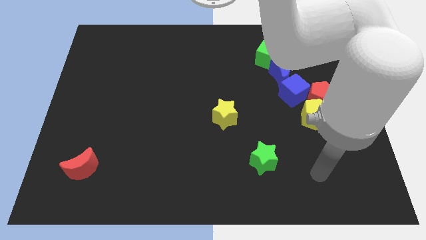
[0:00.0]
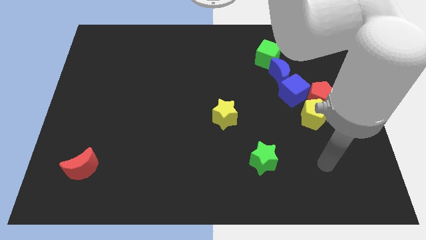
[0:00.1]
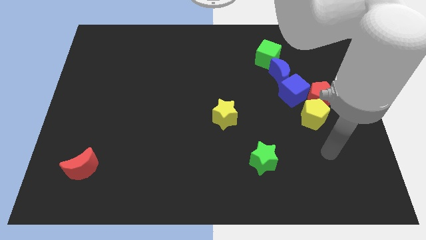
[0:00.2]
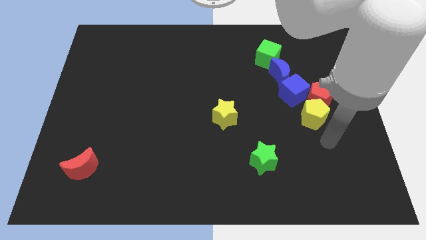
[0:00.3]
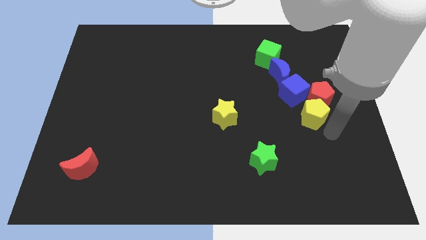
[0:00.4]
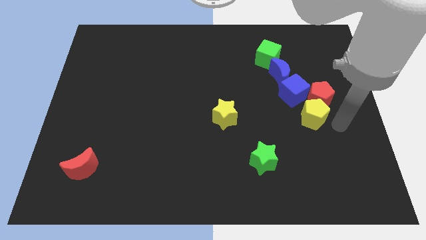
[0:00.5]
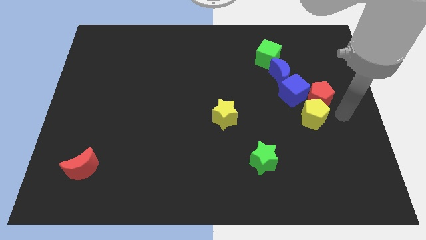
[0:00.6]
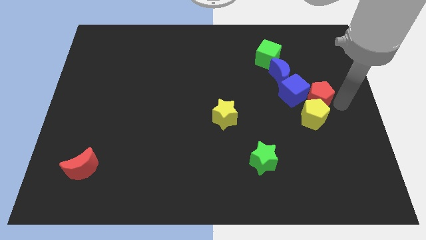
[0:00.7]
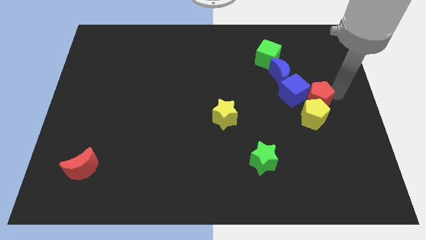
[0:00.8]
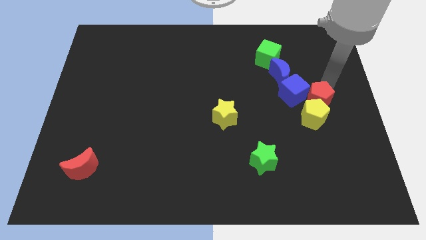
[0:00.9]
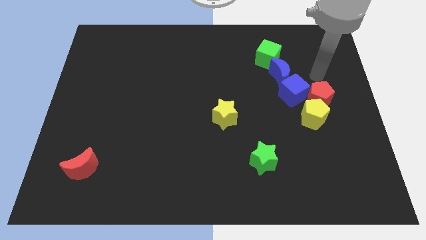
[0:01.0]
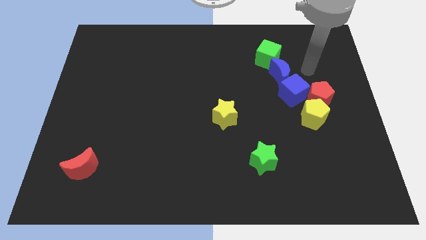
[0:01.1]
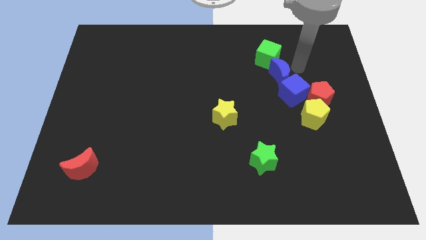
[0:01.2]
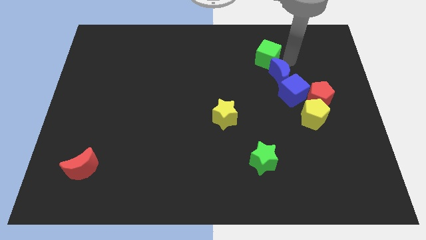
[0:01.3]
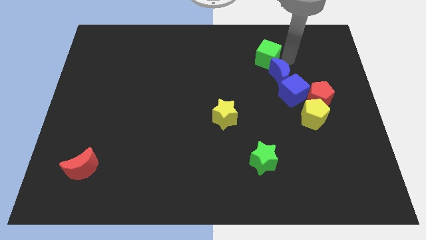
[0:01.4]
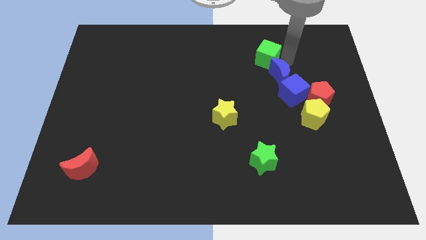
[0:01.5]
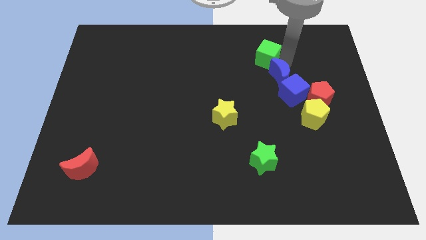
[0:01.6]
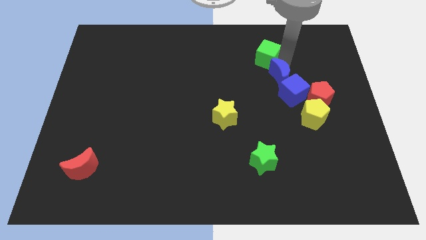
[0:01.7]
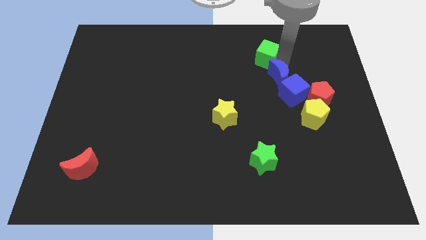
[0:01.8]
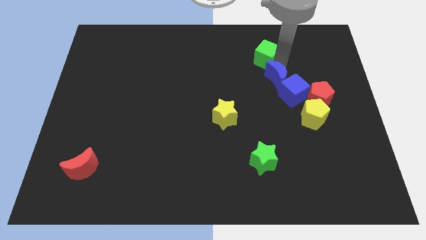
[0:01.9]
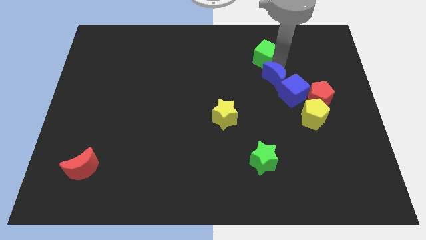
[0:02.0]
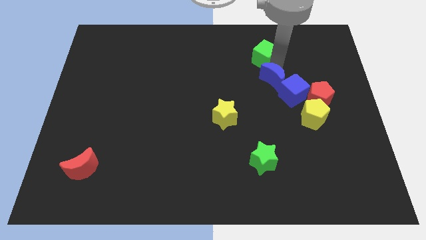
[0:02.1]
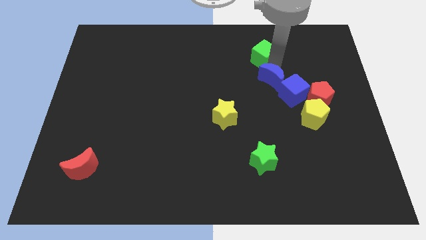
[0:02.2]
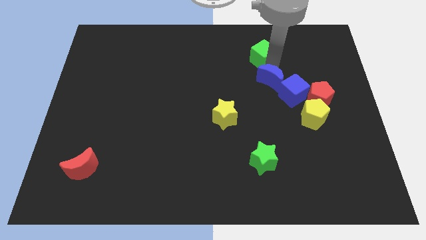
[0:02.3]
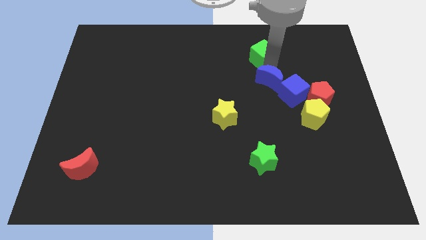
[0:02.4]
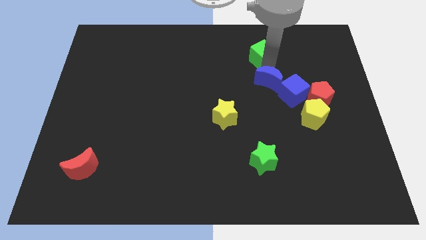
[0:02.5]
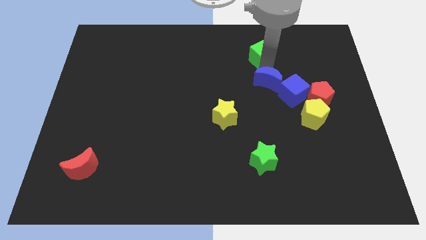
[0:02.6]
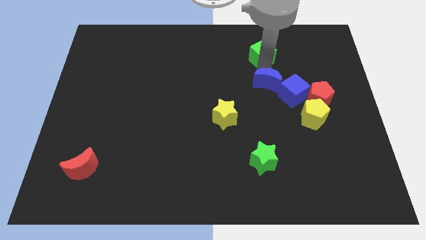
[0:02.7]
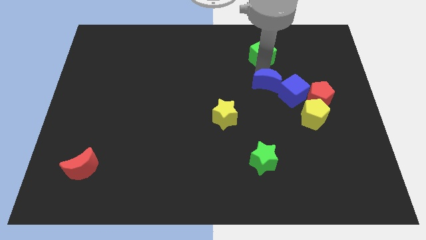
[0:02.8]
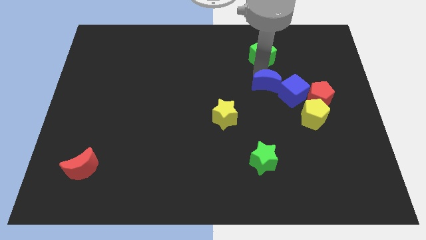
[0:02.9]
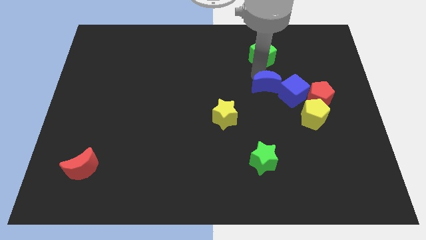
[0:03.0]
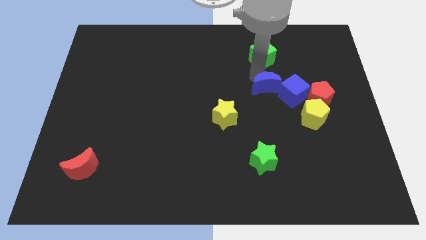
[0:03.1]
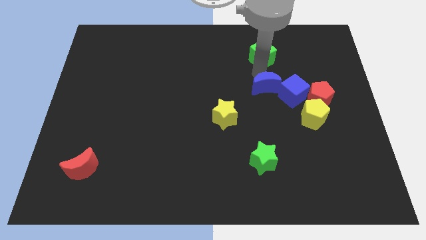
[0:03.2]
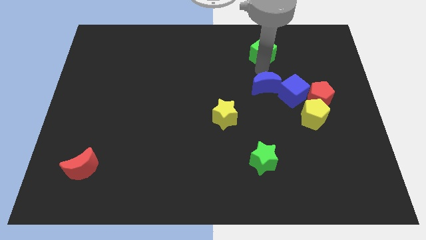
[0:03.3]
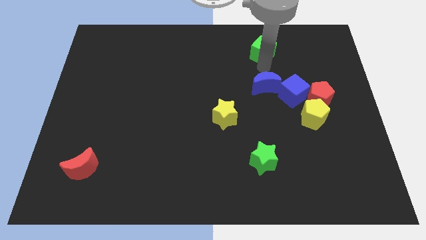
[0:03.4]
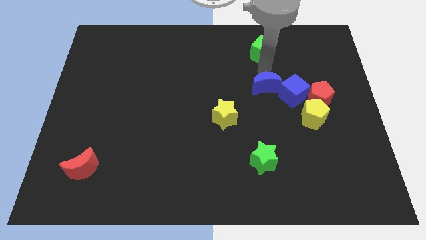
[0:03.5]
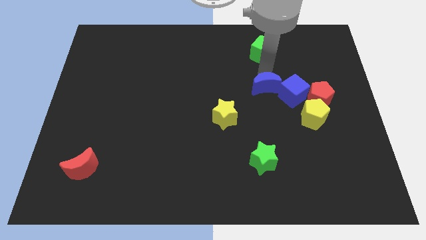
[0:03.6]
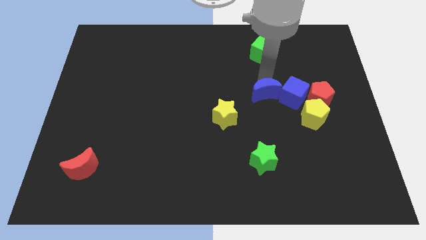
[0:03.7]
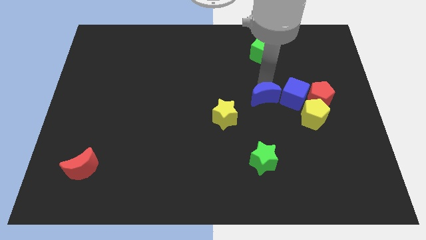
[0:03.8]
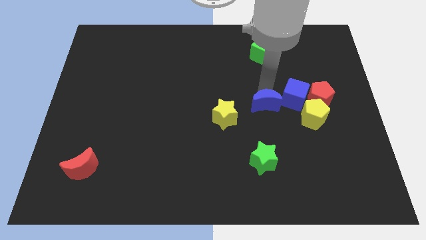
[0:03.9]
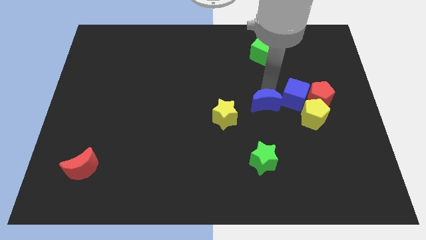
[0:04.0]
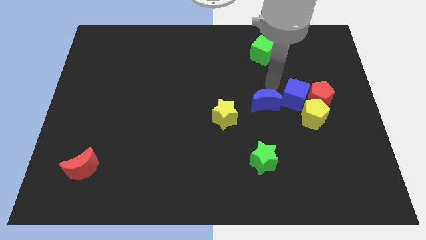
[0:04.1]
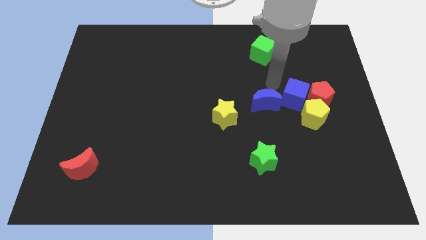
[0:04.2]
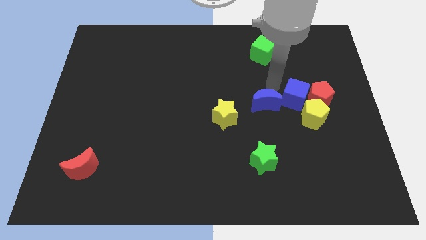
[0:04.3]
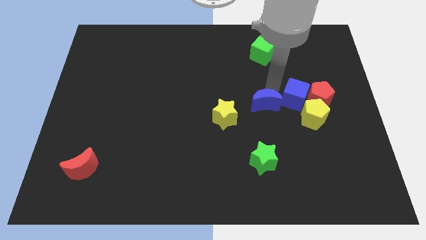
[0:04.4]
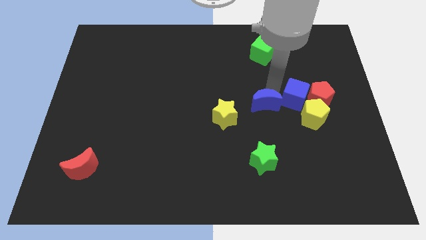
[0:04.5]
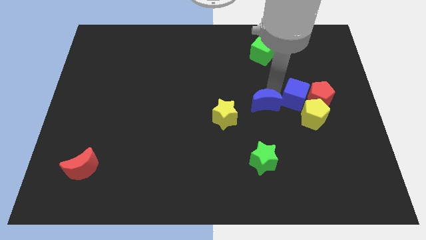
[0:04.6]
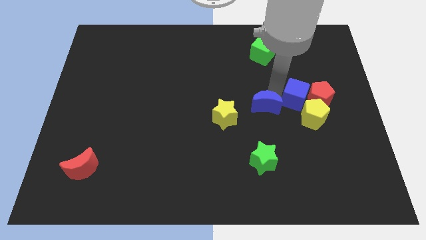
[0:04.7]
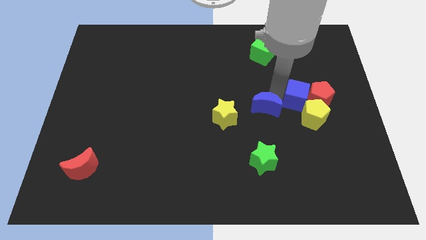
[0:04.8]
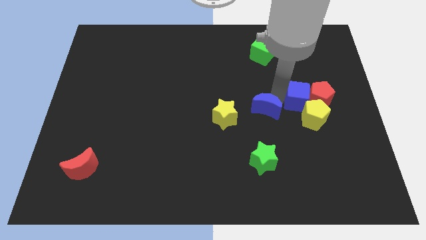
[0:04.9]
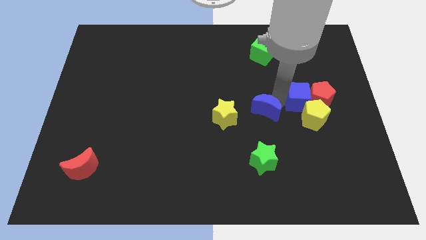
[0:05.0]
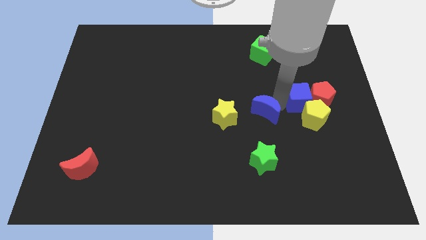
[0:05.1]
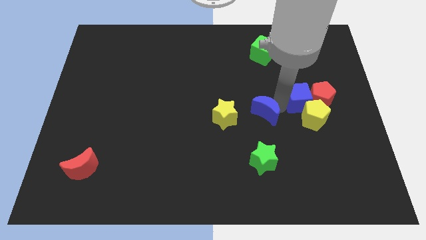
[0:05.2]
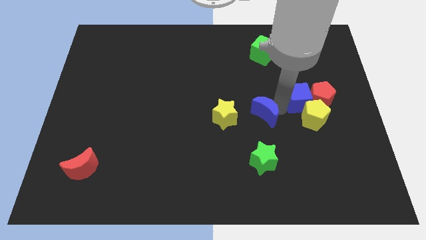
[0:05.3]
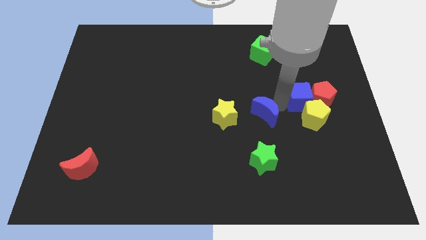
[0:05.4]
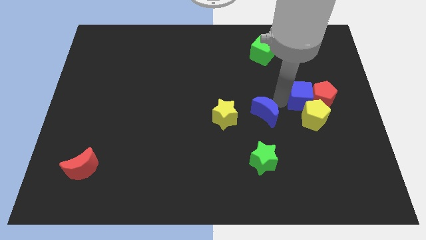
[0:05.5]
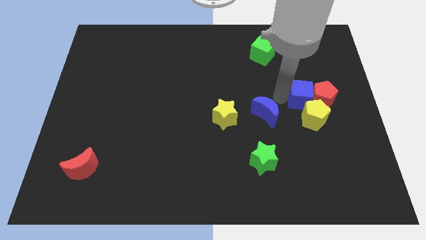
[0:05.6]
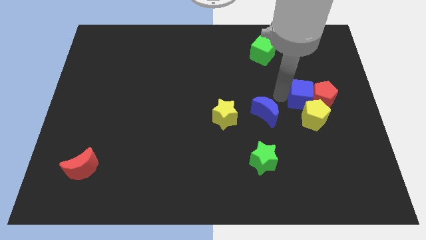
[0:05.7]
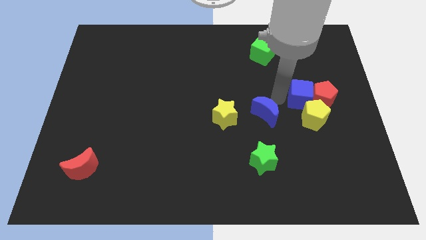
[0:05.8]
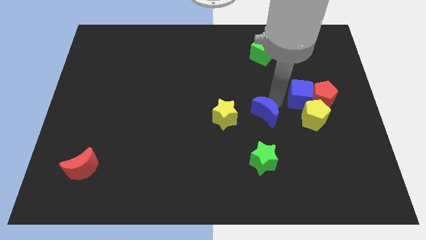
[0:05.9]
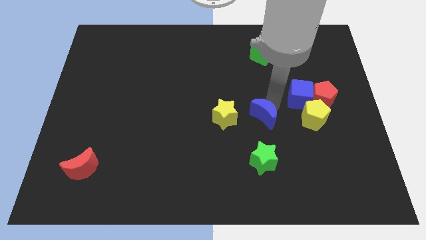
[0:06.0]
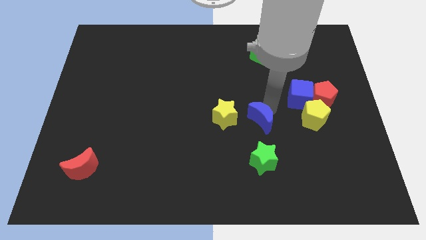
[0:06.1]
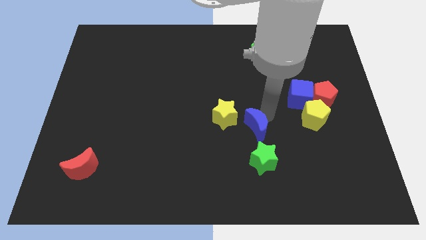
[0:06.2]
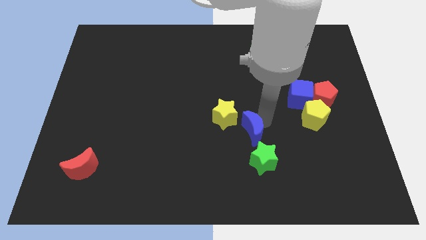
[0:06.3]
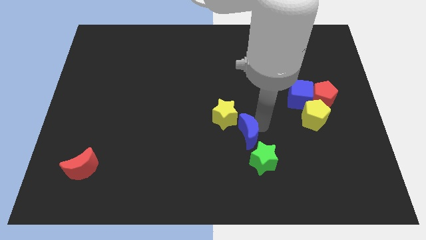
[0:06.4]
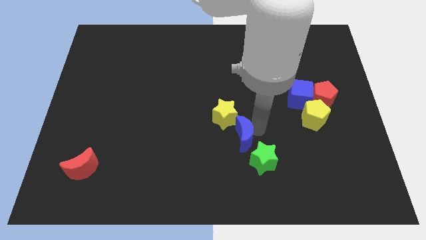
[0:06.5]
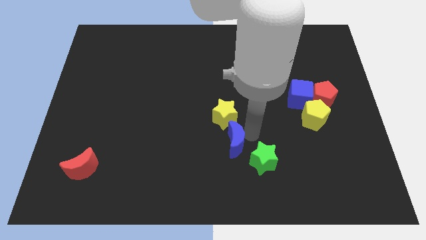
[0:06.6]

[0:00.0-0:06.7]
move the blue moon down and then left

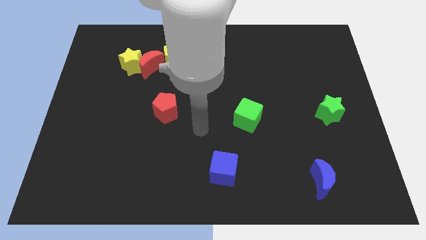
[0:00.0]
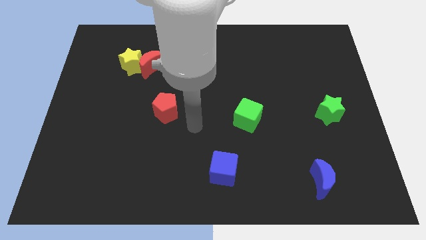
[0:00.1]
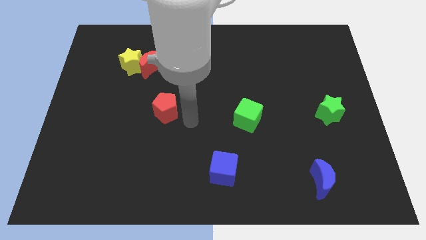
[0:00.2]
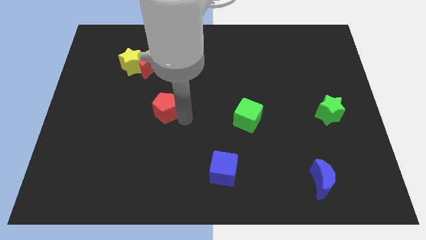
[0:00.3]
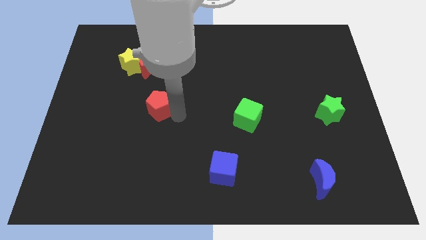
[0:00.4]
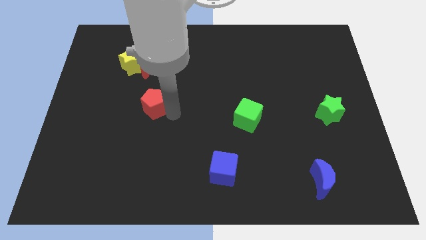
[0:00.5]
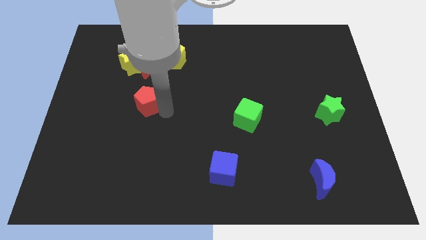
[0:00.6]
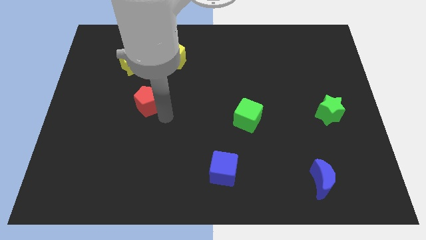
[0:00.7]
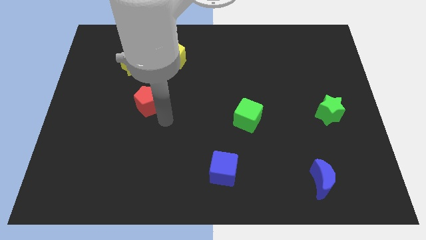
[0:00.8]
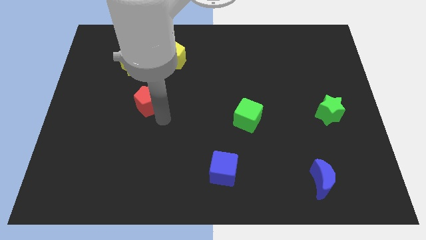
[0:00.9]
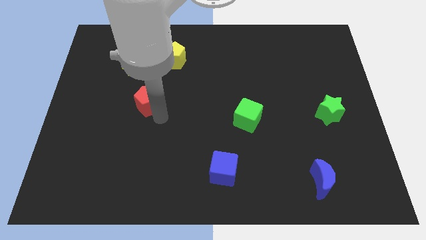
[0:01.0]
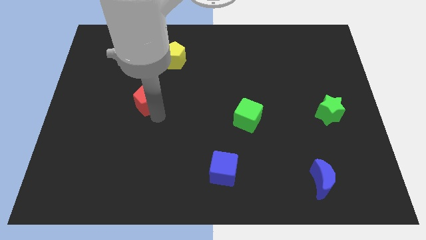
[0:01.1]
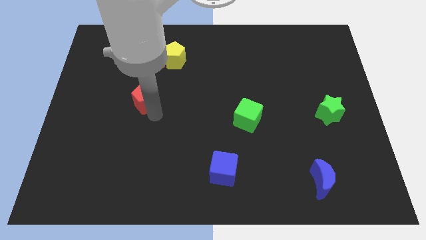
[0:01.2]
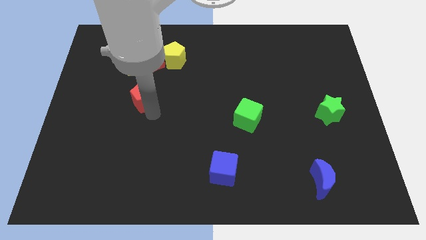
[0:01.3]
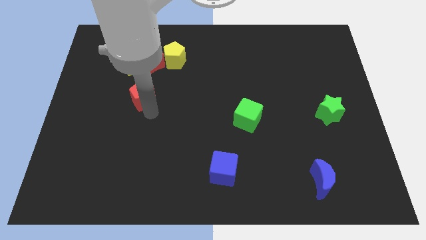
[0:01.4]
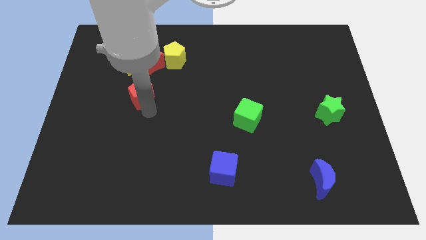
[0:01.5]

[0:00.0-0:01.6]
move the red pentagon upwards and left a little bit
